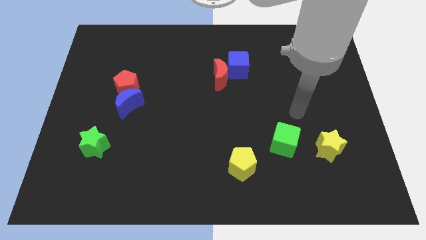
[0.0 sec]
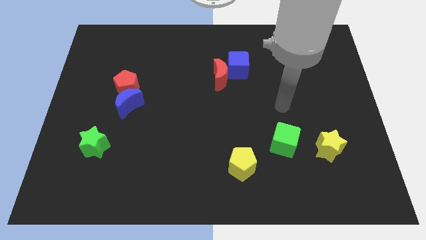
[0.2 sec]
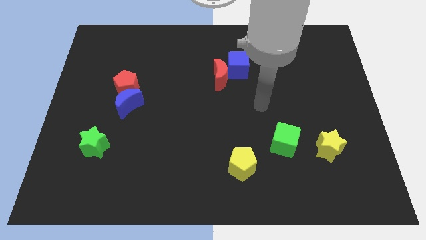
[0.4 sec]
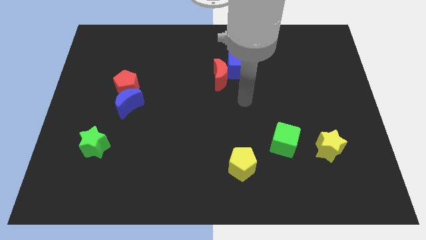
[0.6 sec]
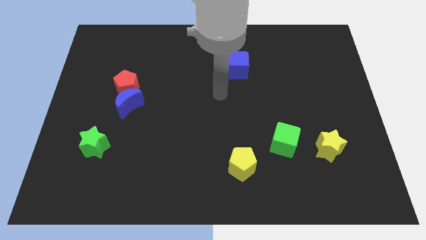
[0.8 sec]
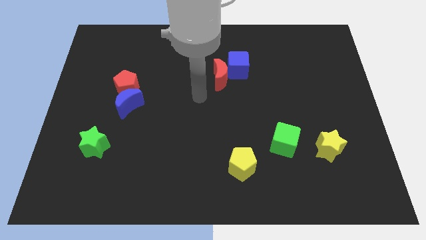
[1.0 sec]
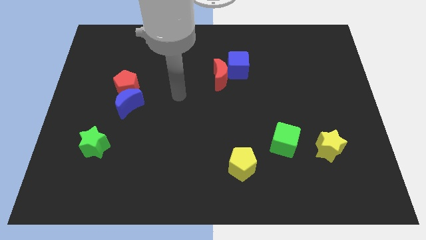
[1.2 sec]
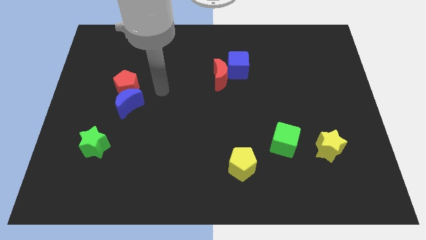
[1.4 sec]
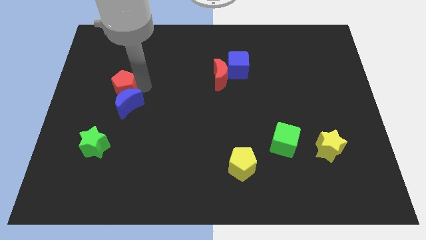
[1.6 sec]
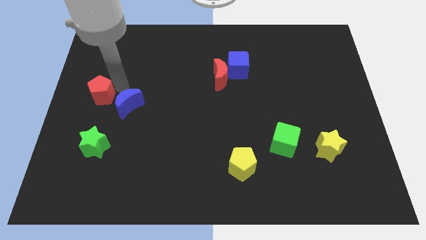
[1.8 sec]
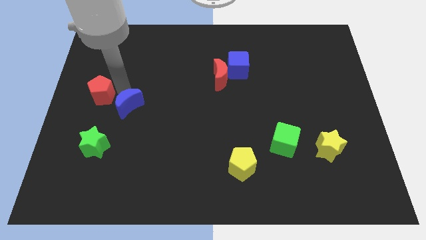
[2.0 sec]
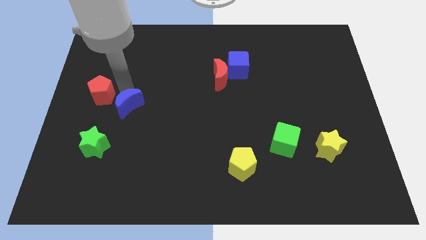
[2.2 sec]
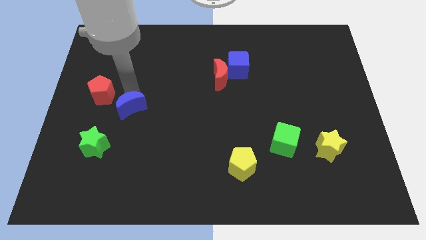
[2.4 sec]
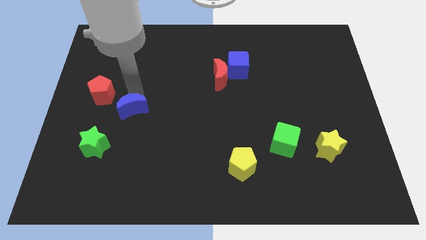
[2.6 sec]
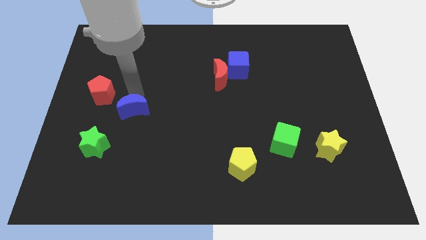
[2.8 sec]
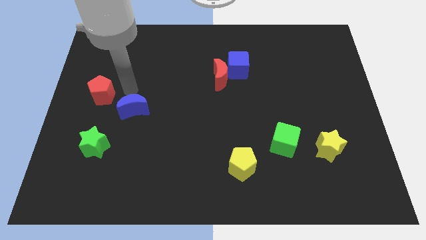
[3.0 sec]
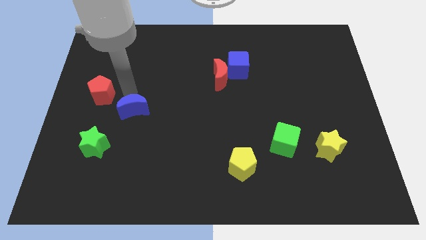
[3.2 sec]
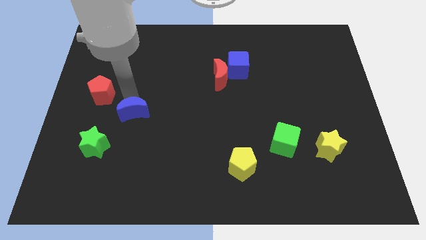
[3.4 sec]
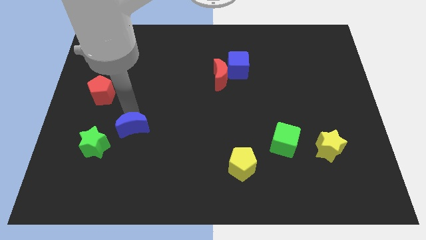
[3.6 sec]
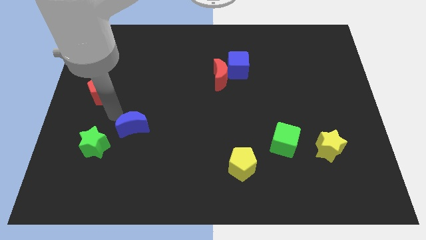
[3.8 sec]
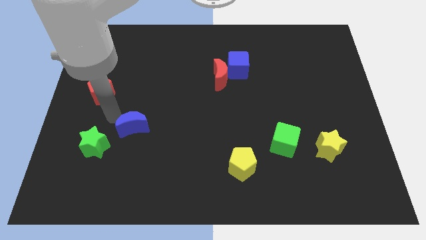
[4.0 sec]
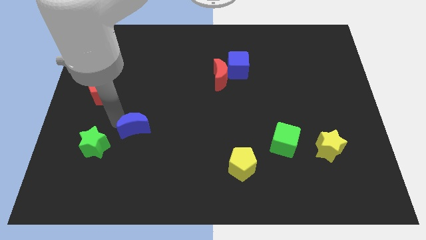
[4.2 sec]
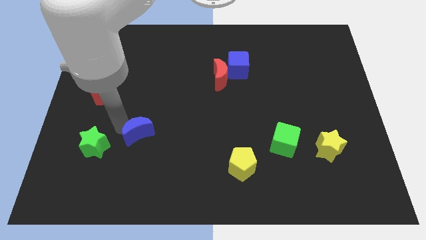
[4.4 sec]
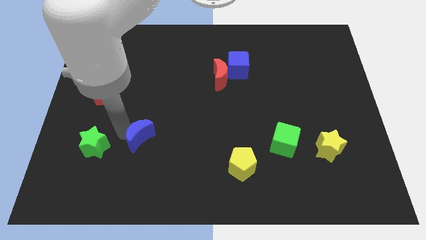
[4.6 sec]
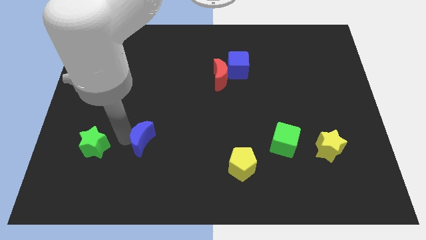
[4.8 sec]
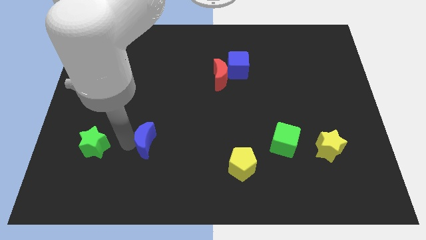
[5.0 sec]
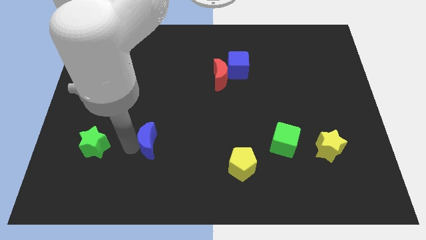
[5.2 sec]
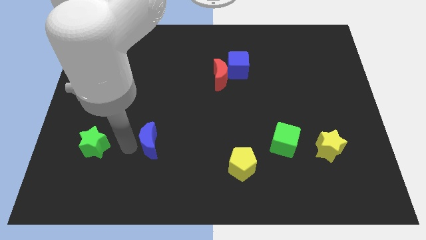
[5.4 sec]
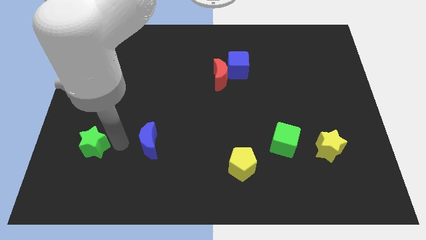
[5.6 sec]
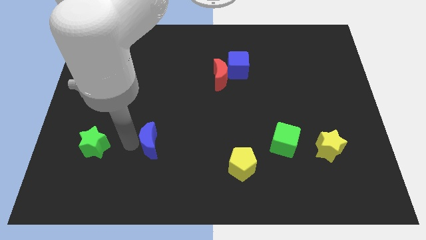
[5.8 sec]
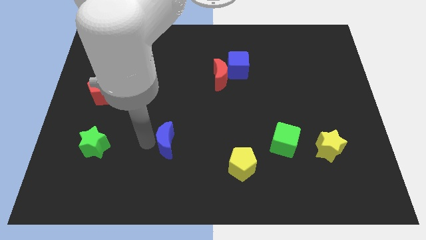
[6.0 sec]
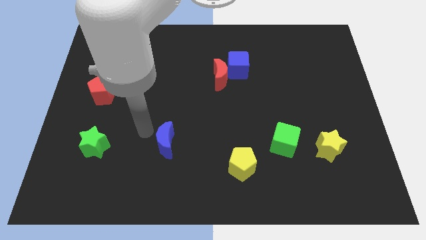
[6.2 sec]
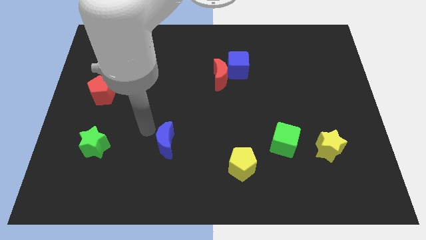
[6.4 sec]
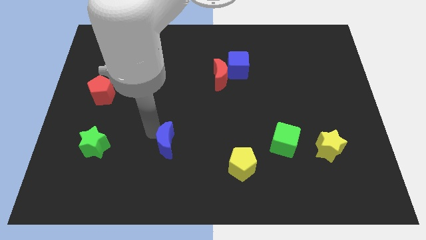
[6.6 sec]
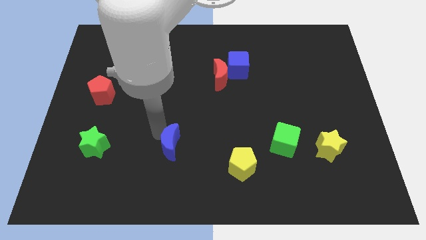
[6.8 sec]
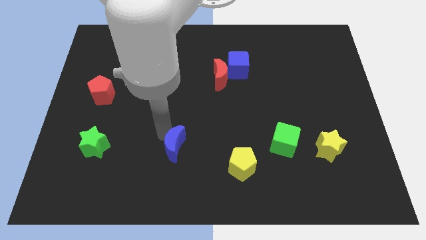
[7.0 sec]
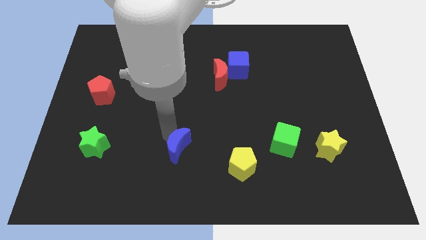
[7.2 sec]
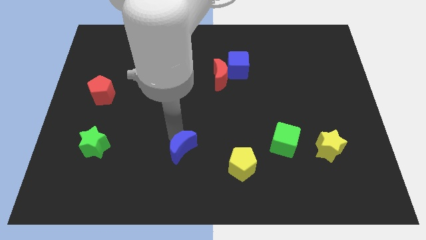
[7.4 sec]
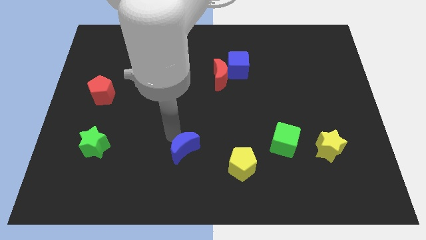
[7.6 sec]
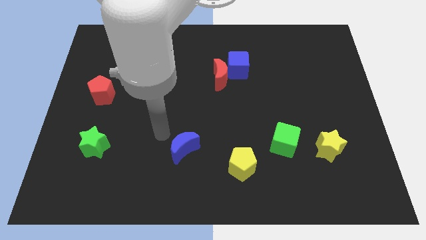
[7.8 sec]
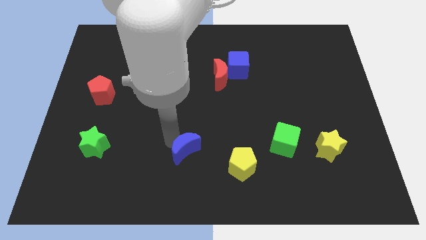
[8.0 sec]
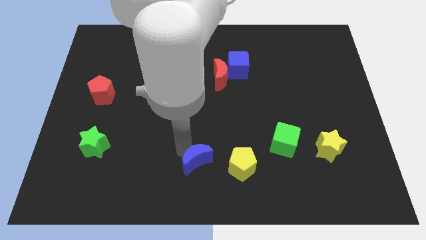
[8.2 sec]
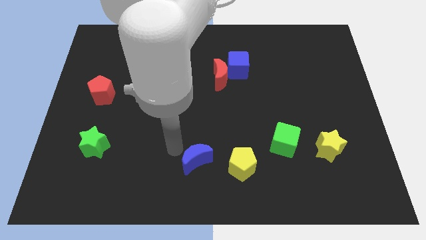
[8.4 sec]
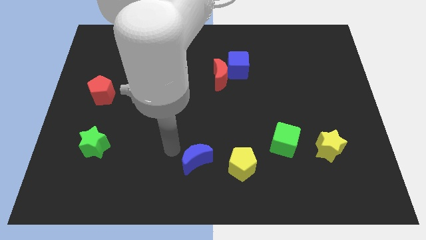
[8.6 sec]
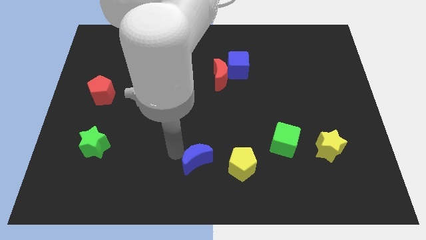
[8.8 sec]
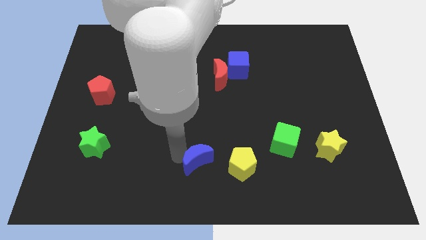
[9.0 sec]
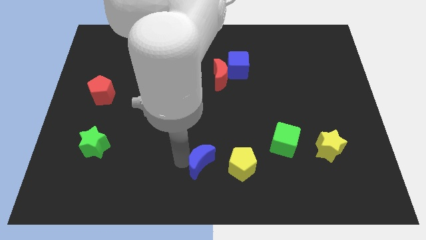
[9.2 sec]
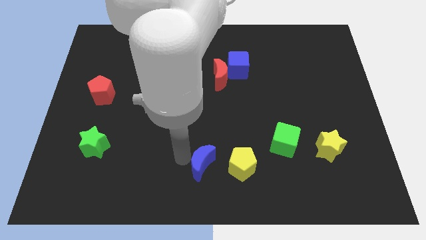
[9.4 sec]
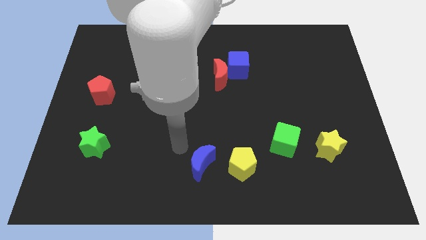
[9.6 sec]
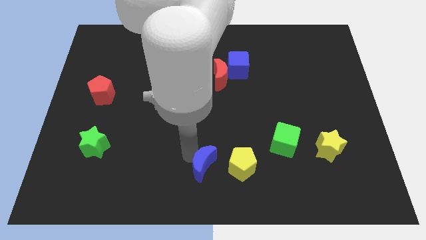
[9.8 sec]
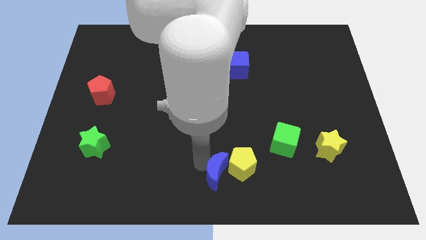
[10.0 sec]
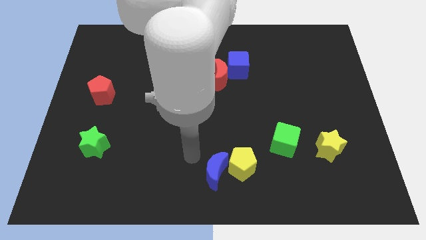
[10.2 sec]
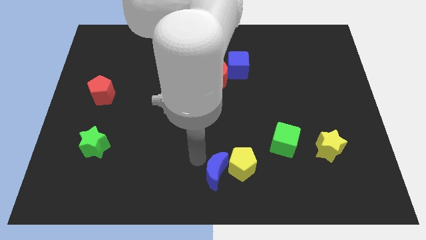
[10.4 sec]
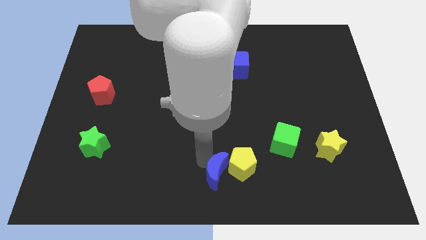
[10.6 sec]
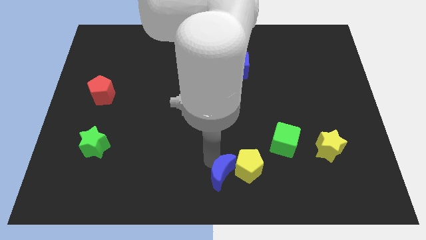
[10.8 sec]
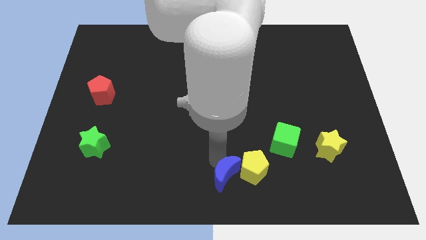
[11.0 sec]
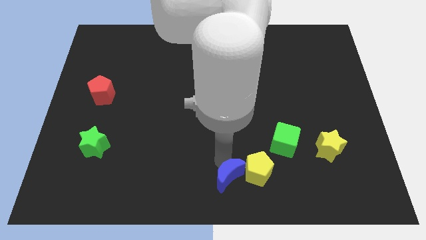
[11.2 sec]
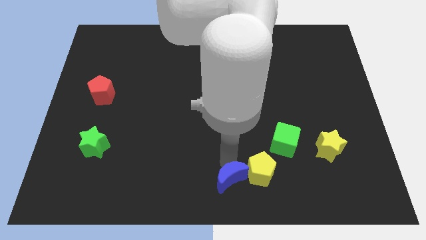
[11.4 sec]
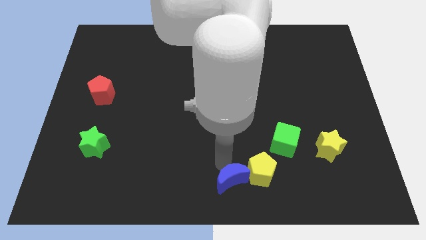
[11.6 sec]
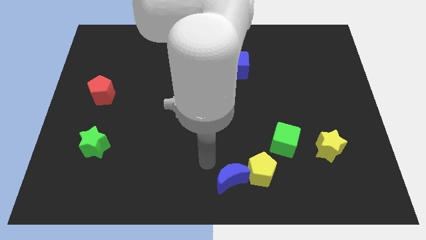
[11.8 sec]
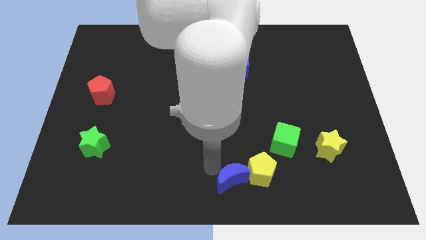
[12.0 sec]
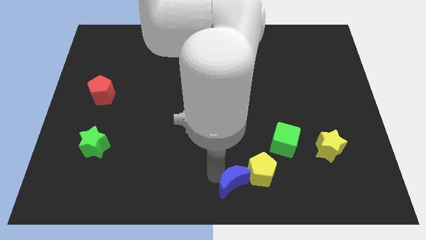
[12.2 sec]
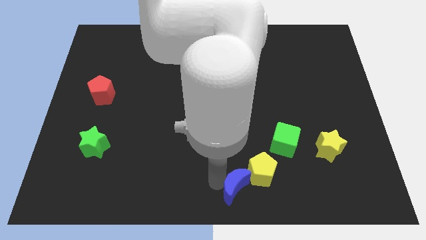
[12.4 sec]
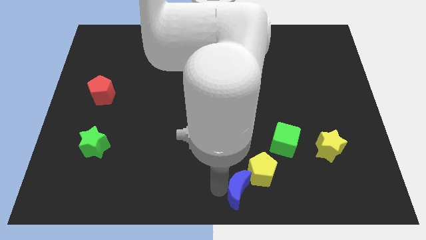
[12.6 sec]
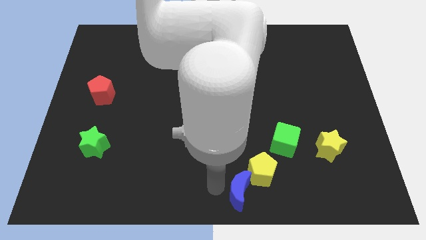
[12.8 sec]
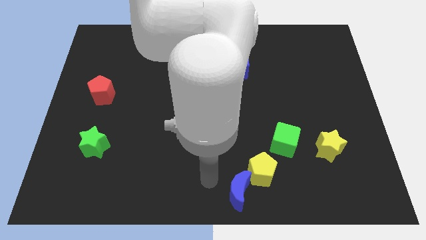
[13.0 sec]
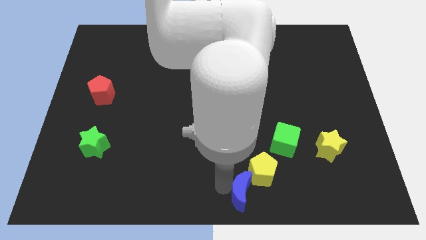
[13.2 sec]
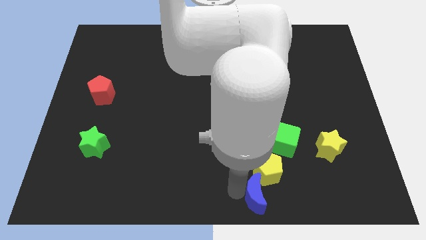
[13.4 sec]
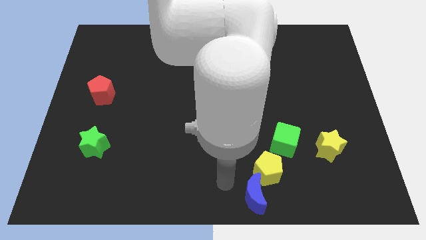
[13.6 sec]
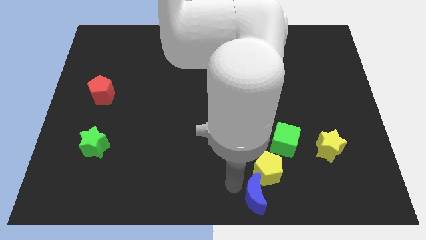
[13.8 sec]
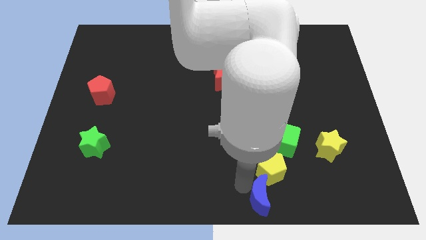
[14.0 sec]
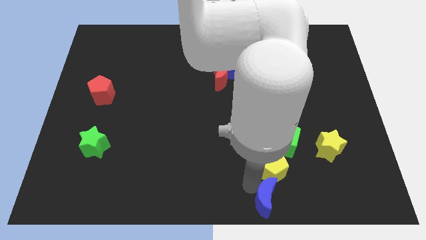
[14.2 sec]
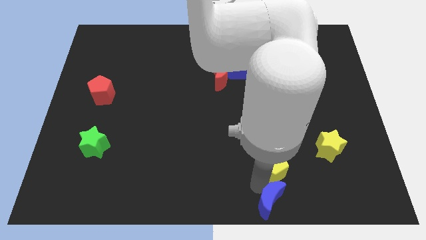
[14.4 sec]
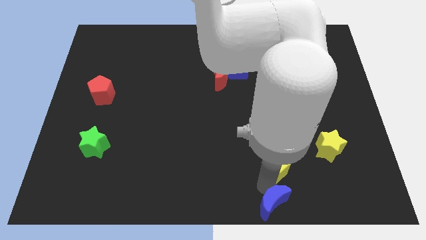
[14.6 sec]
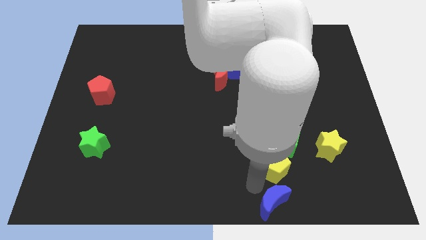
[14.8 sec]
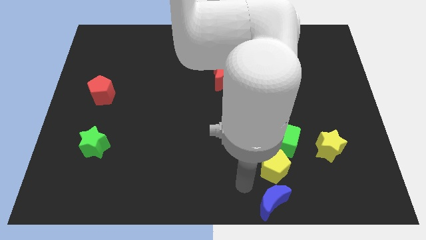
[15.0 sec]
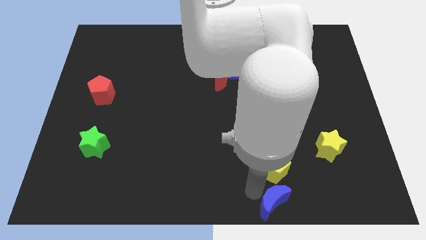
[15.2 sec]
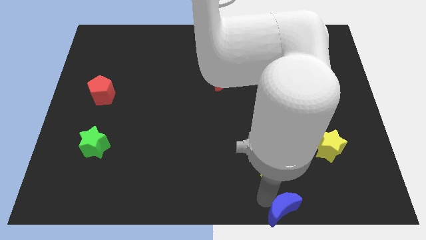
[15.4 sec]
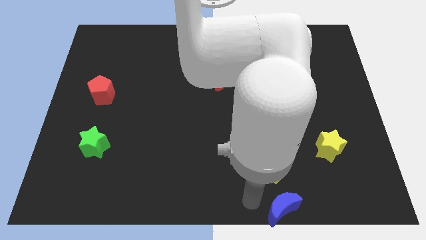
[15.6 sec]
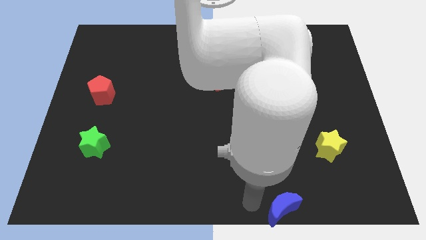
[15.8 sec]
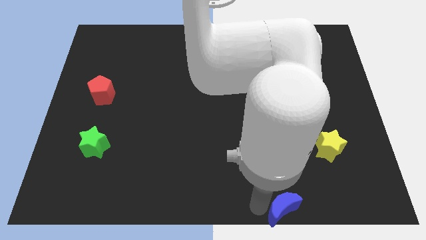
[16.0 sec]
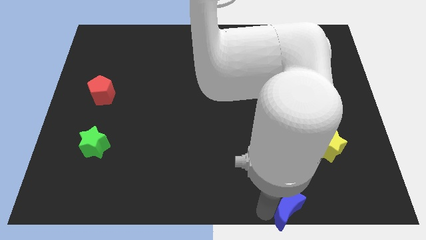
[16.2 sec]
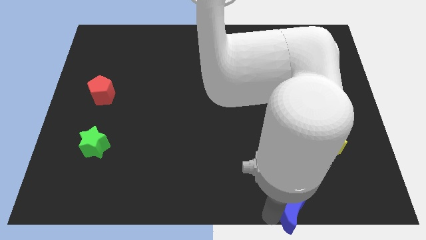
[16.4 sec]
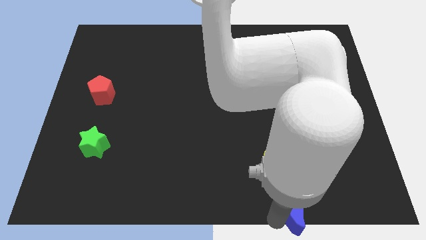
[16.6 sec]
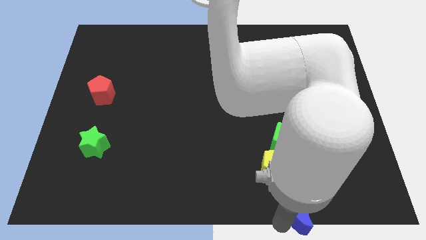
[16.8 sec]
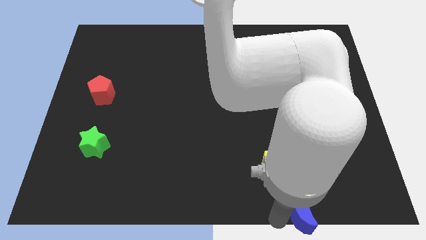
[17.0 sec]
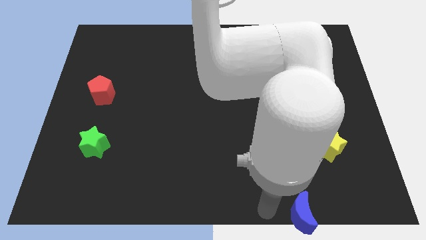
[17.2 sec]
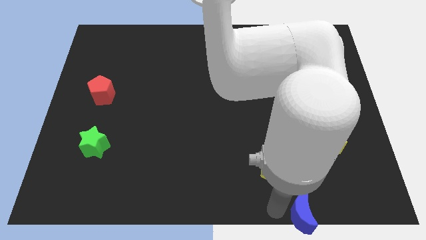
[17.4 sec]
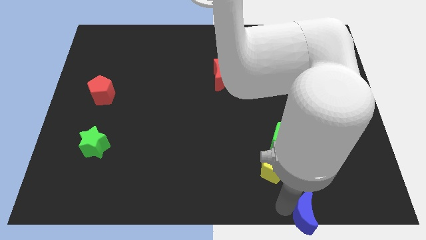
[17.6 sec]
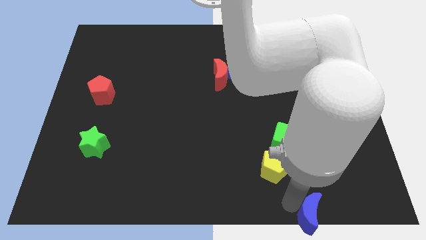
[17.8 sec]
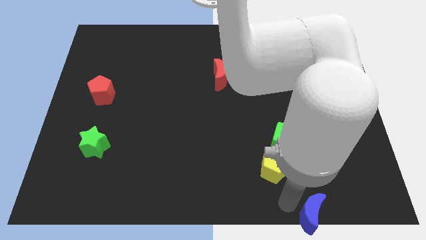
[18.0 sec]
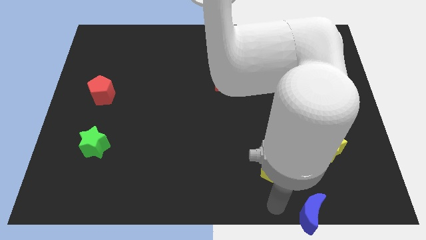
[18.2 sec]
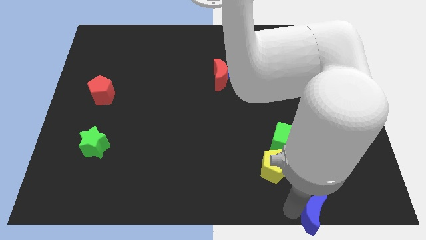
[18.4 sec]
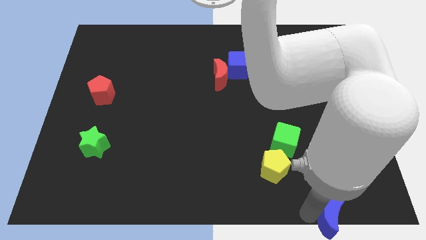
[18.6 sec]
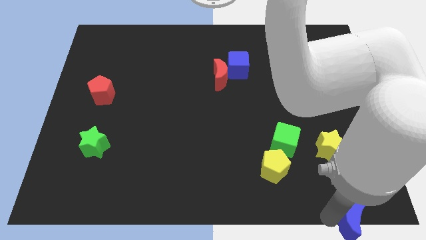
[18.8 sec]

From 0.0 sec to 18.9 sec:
put the blue moon to the lower right corner
